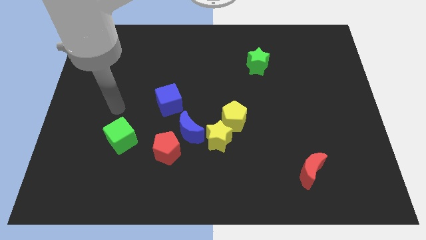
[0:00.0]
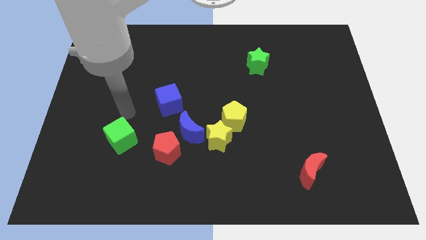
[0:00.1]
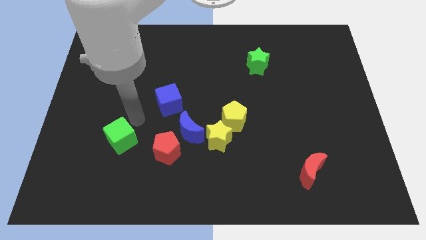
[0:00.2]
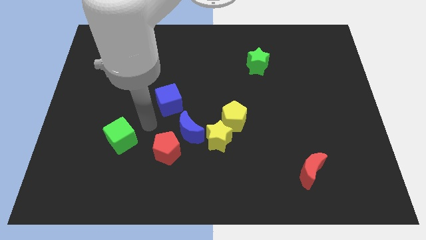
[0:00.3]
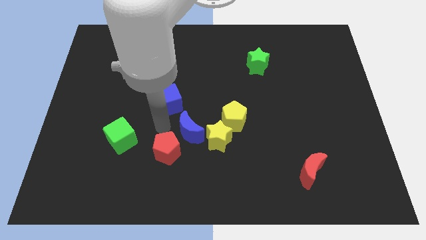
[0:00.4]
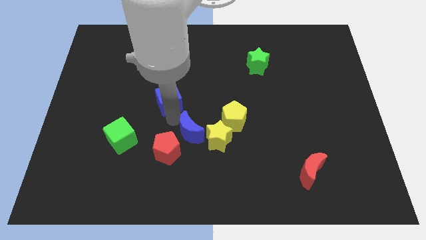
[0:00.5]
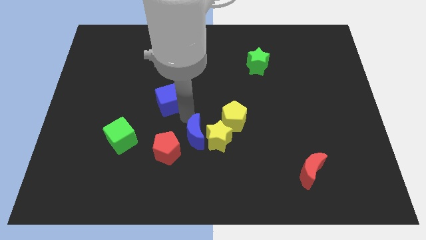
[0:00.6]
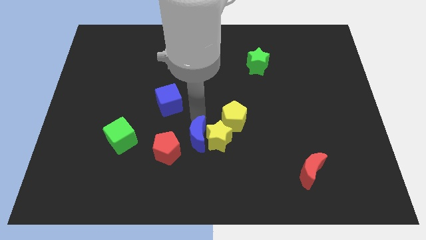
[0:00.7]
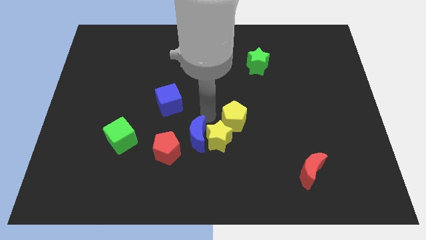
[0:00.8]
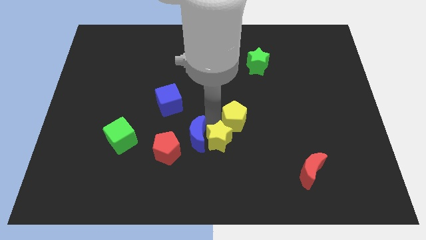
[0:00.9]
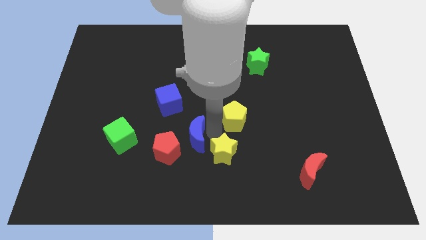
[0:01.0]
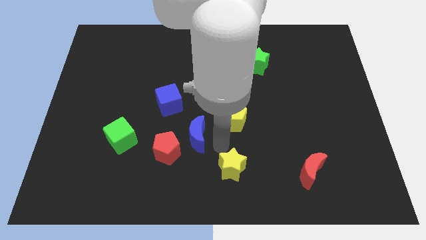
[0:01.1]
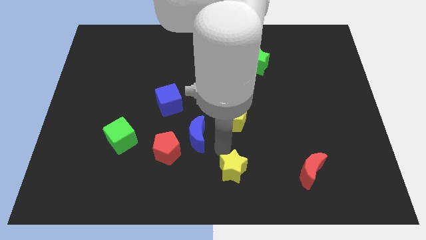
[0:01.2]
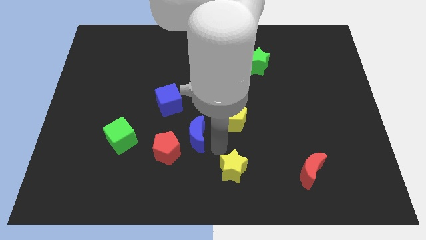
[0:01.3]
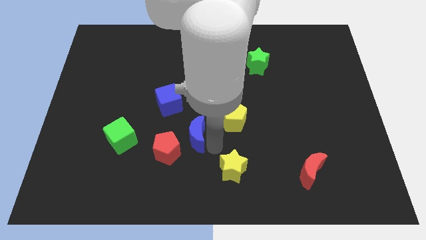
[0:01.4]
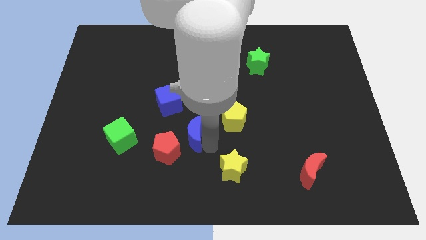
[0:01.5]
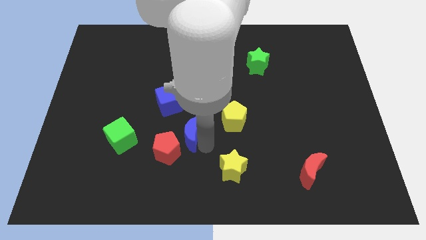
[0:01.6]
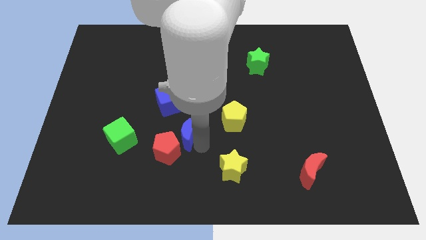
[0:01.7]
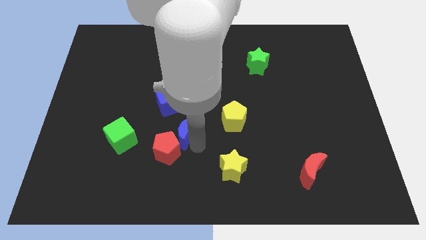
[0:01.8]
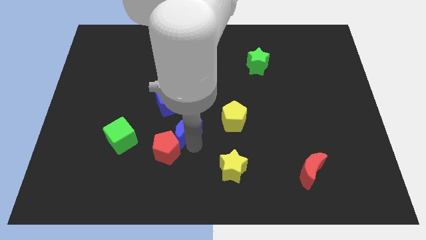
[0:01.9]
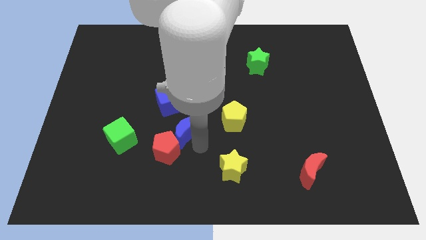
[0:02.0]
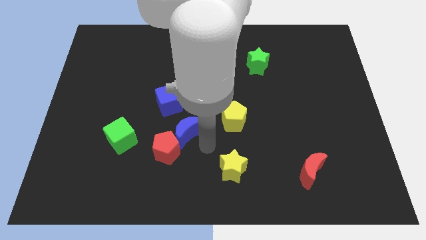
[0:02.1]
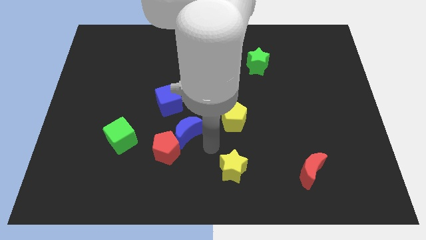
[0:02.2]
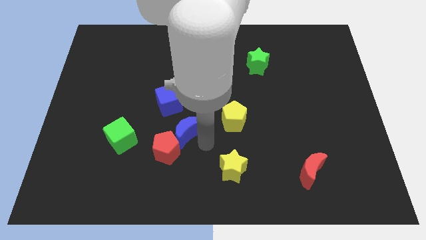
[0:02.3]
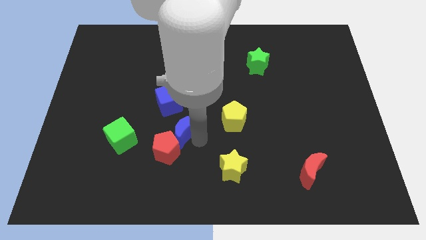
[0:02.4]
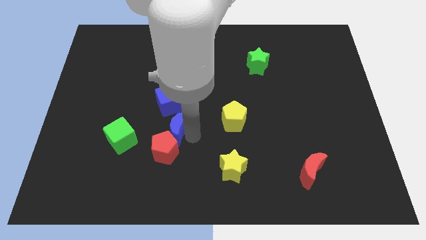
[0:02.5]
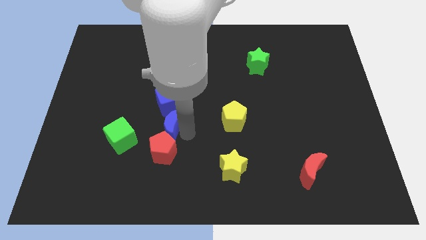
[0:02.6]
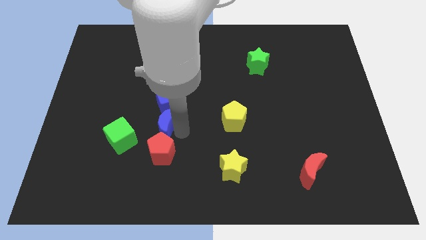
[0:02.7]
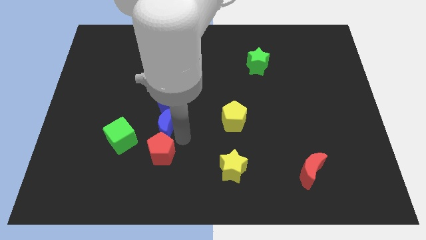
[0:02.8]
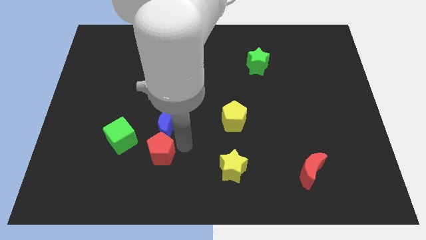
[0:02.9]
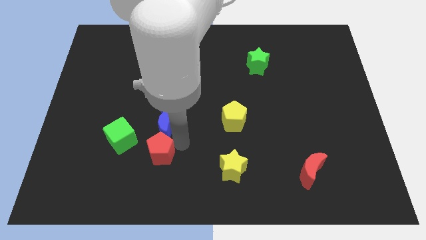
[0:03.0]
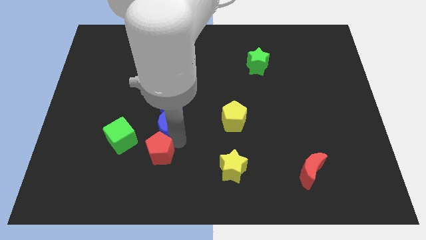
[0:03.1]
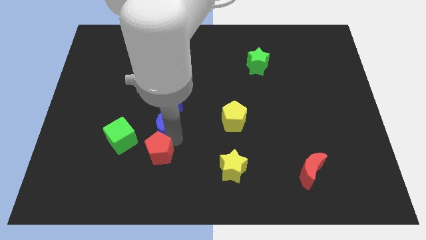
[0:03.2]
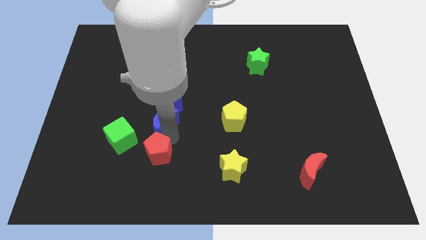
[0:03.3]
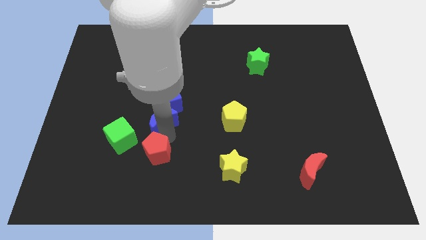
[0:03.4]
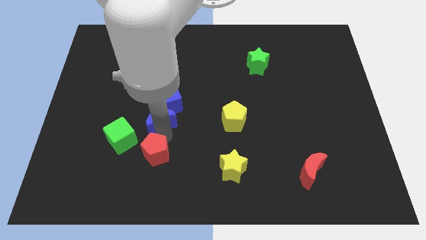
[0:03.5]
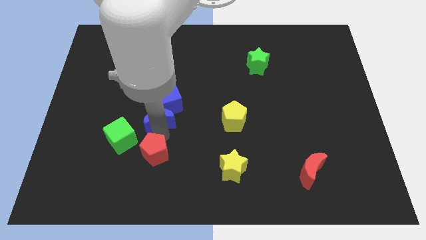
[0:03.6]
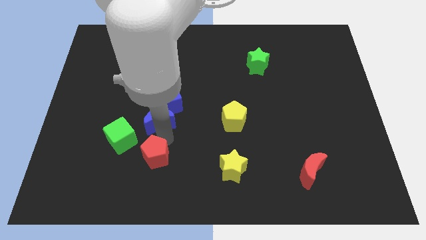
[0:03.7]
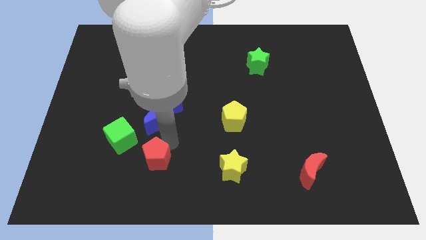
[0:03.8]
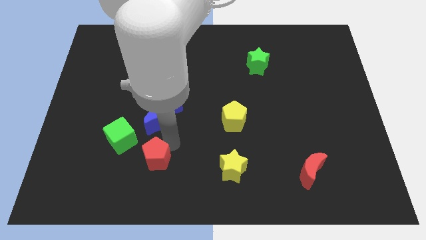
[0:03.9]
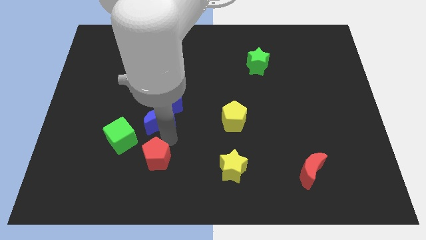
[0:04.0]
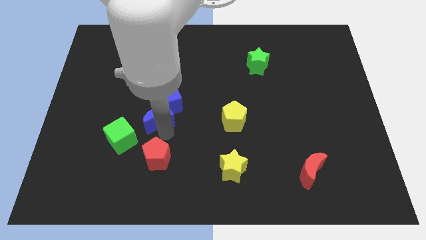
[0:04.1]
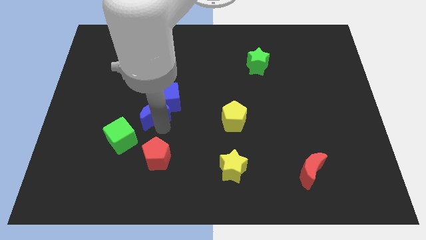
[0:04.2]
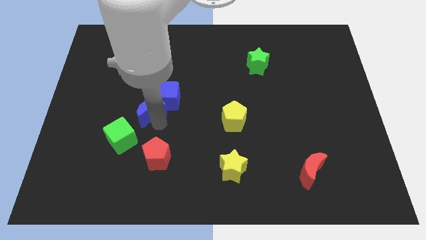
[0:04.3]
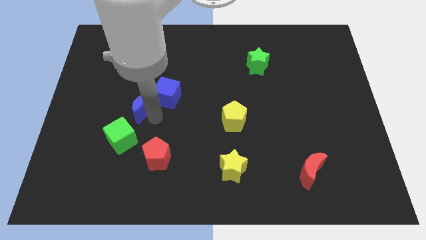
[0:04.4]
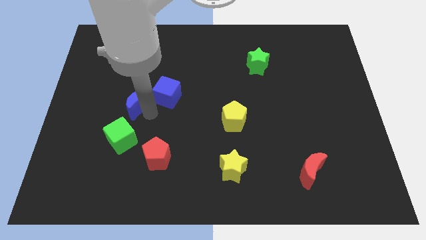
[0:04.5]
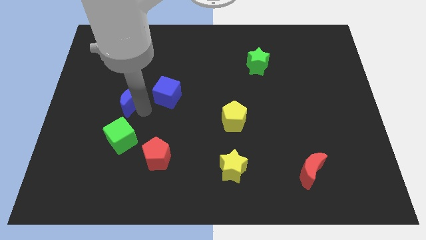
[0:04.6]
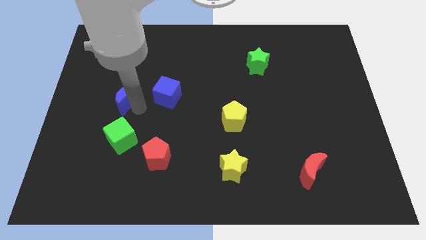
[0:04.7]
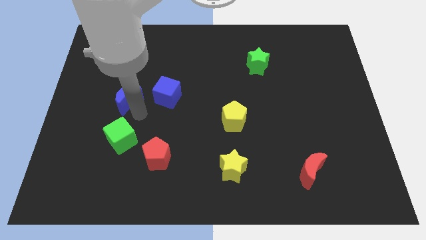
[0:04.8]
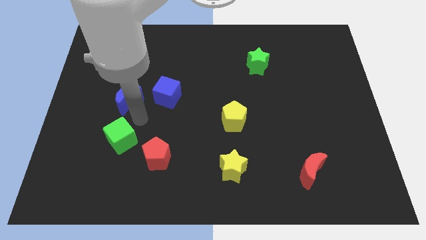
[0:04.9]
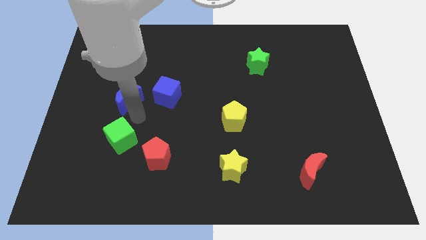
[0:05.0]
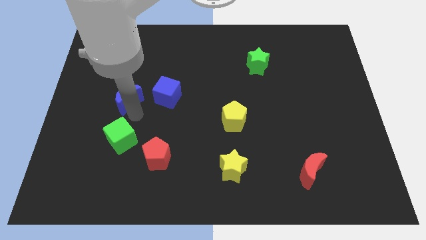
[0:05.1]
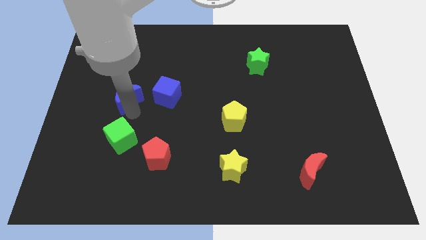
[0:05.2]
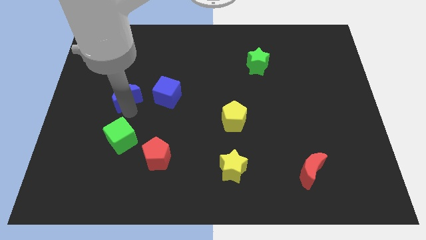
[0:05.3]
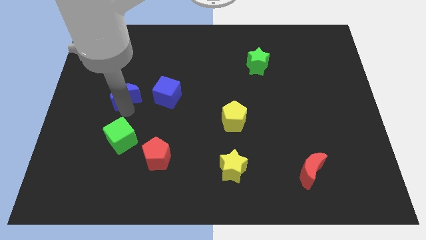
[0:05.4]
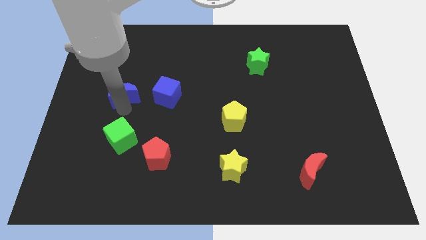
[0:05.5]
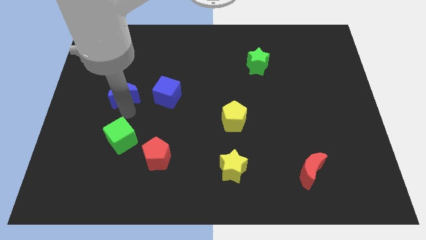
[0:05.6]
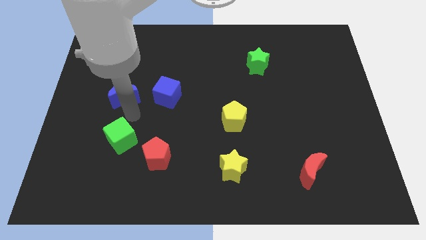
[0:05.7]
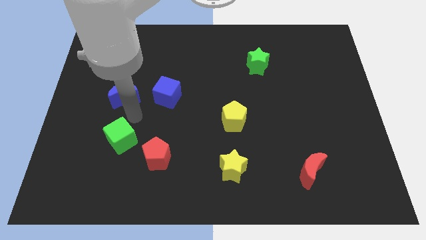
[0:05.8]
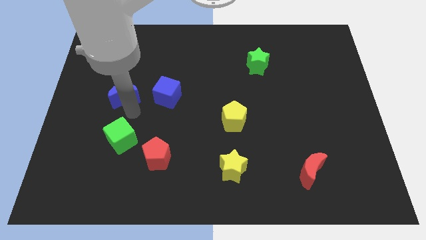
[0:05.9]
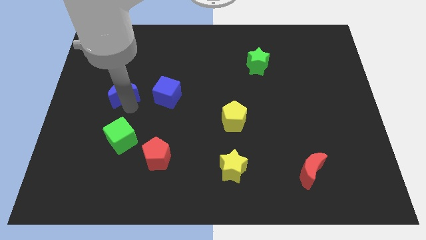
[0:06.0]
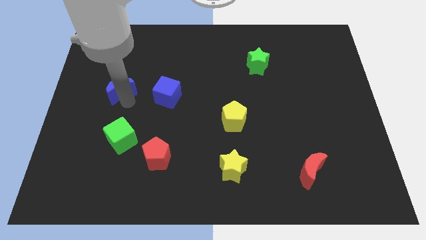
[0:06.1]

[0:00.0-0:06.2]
slide the blue moon upwards and to the left diagonally

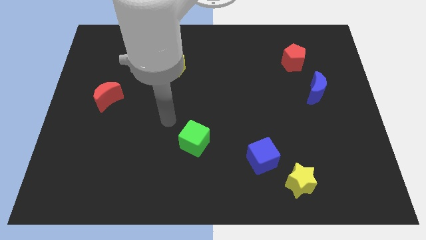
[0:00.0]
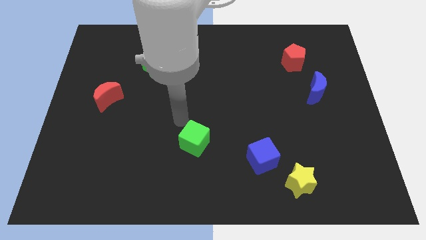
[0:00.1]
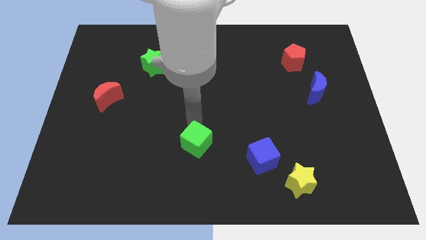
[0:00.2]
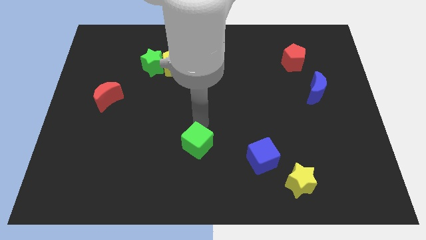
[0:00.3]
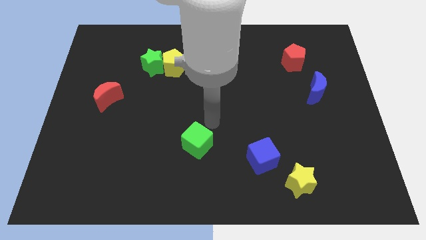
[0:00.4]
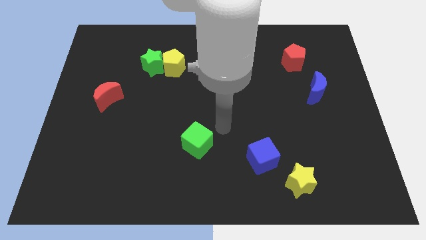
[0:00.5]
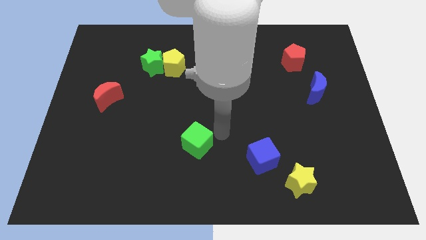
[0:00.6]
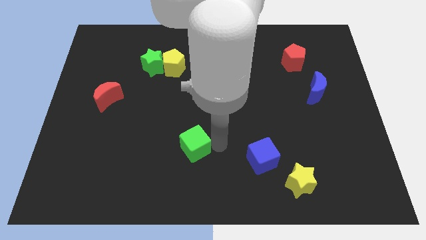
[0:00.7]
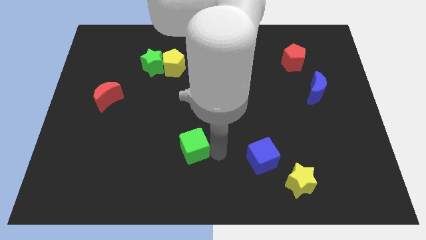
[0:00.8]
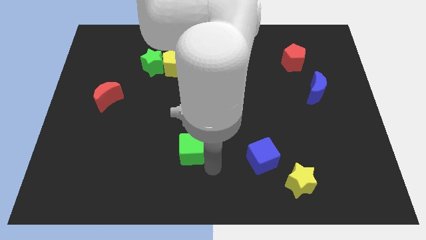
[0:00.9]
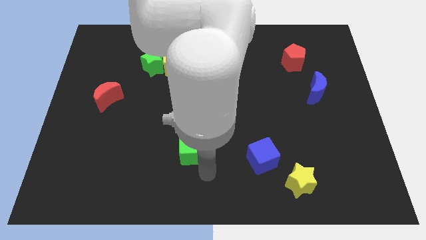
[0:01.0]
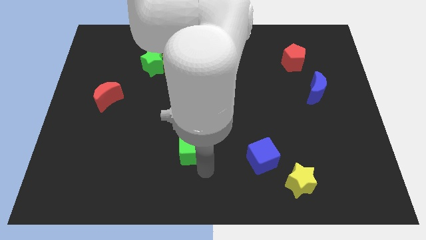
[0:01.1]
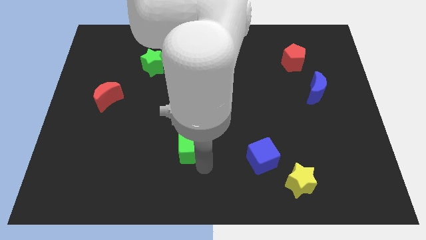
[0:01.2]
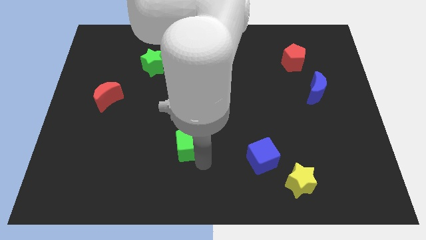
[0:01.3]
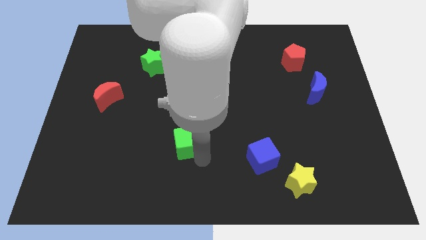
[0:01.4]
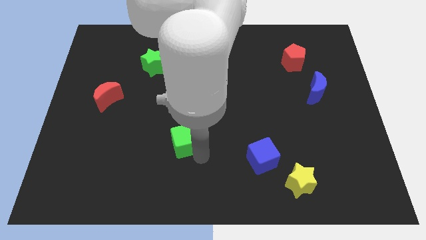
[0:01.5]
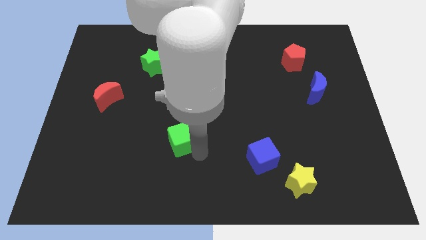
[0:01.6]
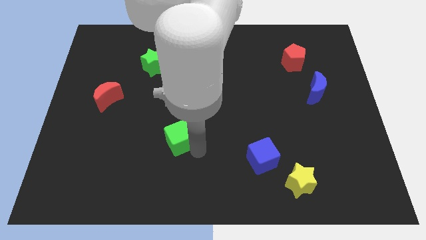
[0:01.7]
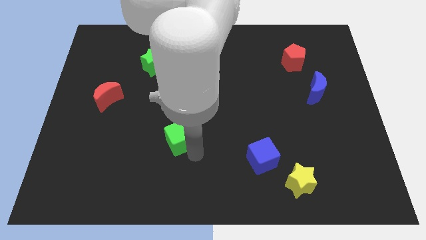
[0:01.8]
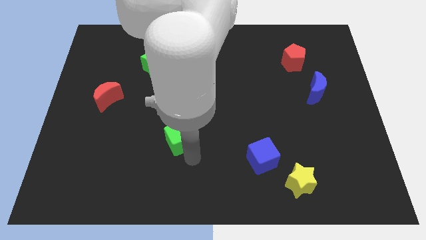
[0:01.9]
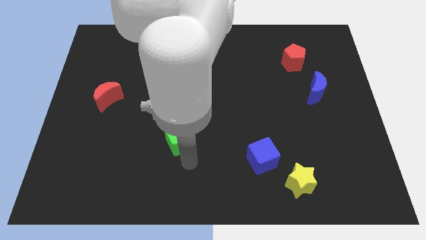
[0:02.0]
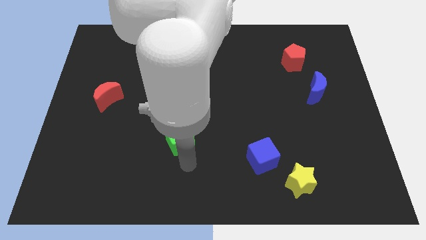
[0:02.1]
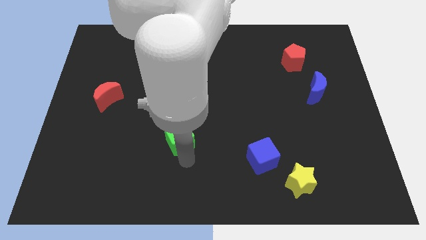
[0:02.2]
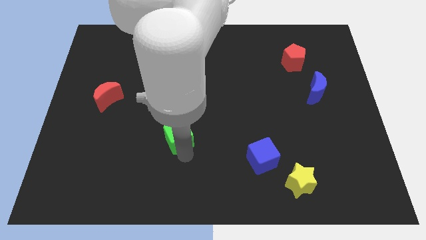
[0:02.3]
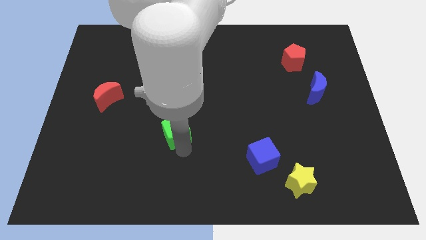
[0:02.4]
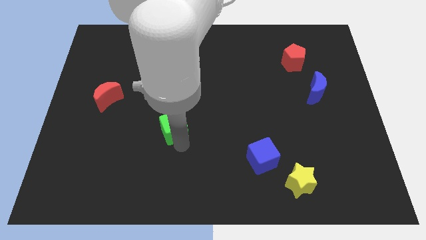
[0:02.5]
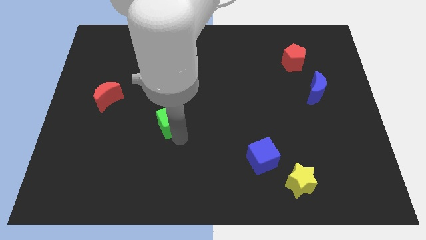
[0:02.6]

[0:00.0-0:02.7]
move the green cube upwards and then to the left a little
